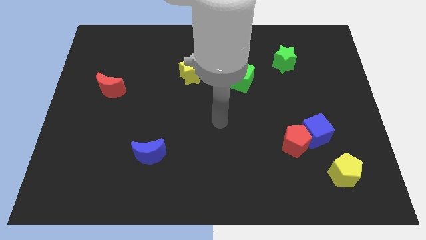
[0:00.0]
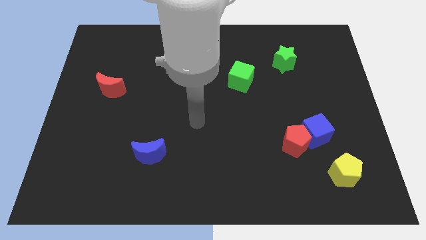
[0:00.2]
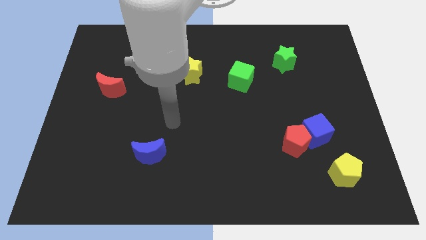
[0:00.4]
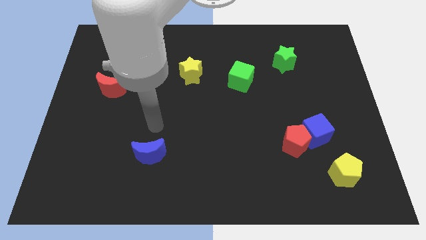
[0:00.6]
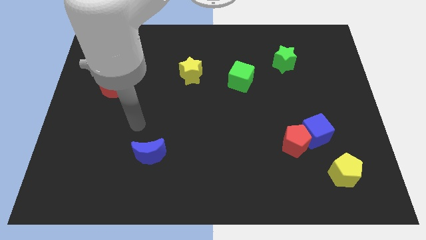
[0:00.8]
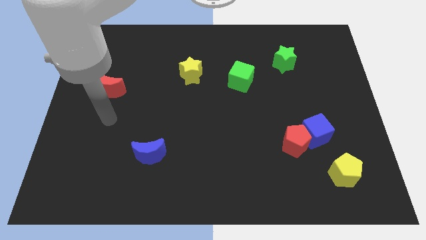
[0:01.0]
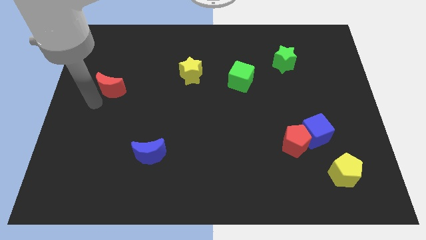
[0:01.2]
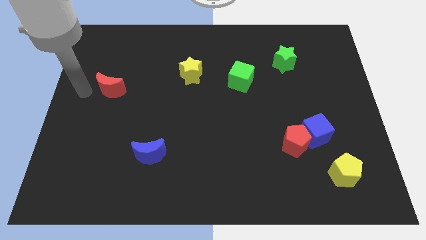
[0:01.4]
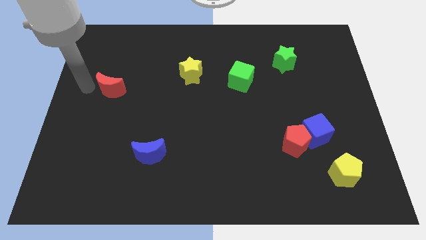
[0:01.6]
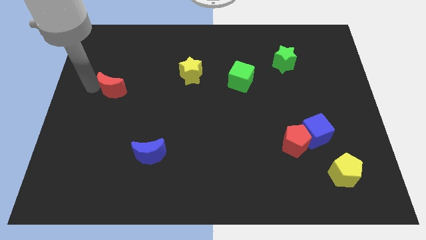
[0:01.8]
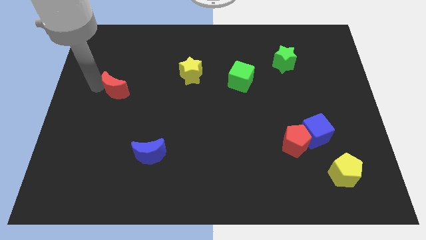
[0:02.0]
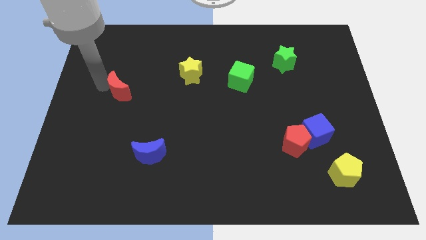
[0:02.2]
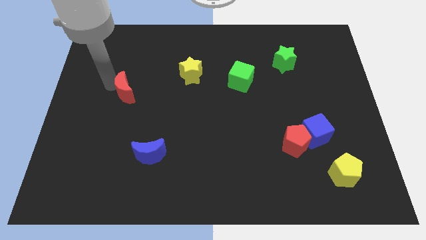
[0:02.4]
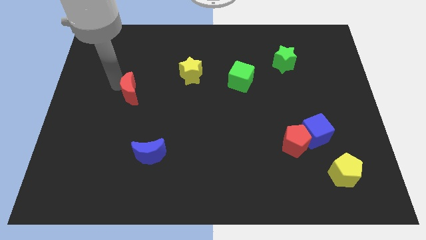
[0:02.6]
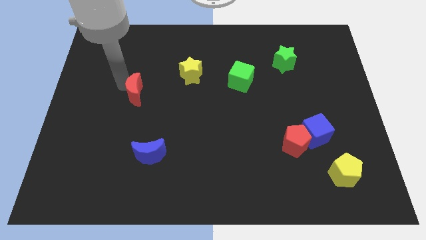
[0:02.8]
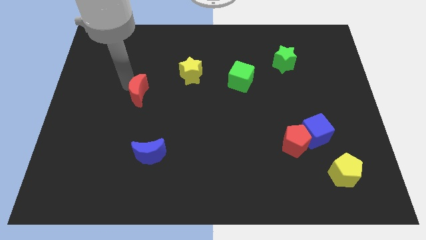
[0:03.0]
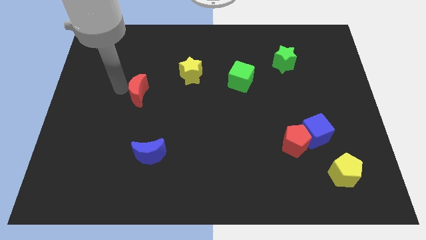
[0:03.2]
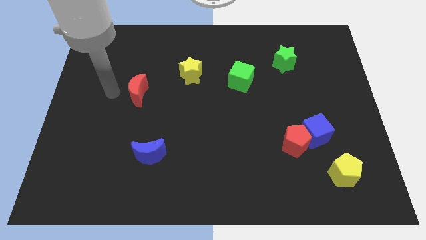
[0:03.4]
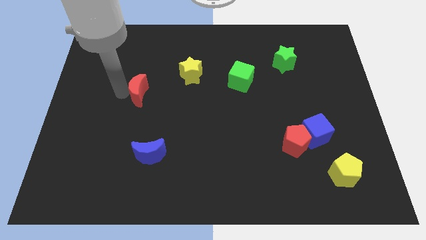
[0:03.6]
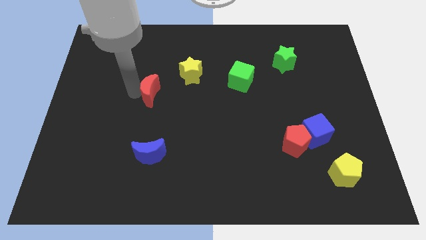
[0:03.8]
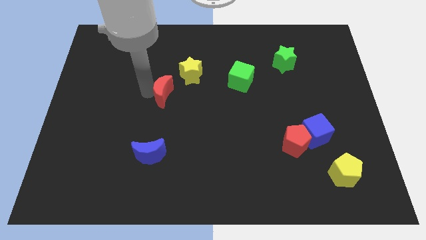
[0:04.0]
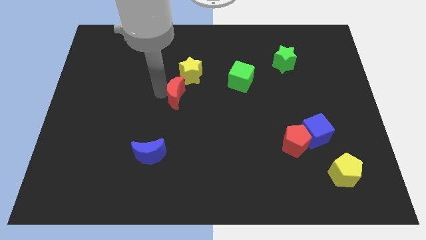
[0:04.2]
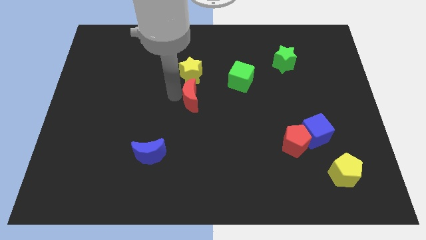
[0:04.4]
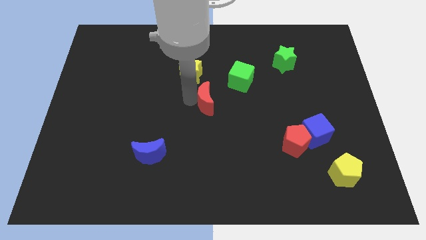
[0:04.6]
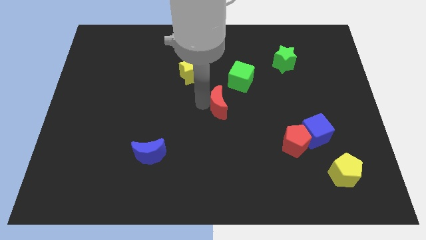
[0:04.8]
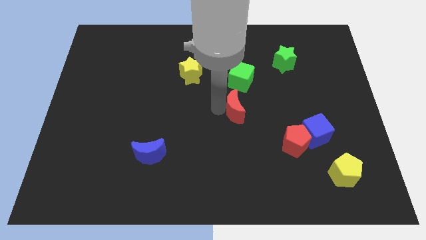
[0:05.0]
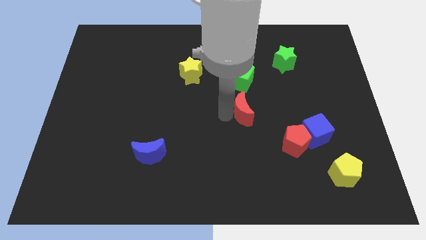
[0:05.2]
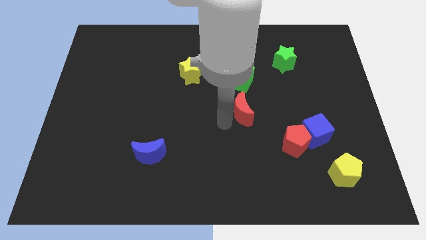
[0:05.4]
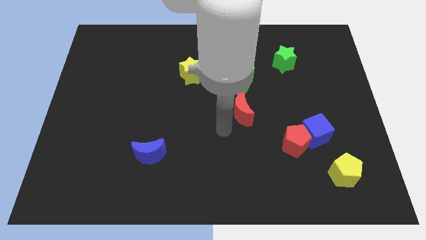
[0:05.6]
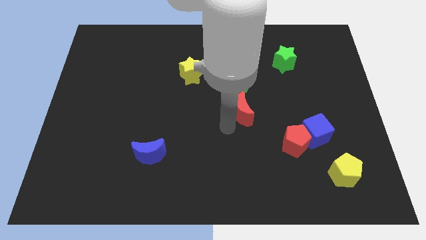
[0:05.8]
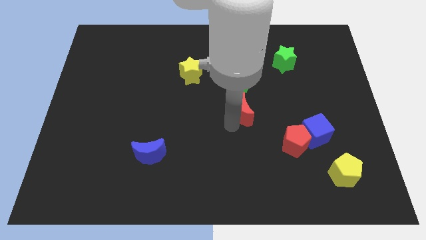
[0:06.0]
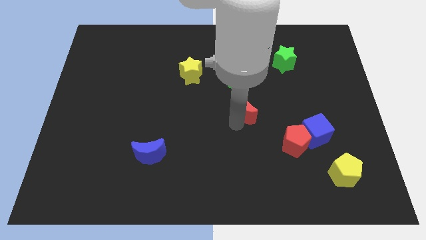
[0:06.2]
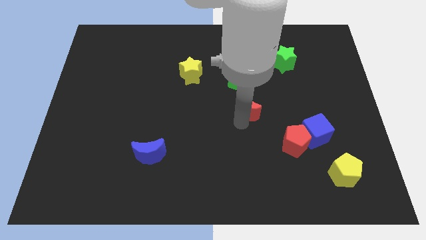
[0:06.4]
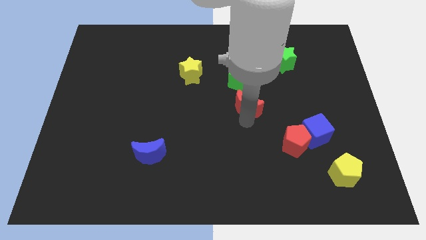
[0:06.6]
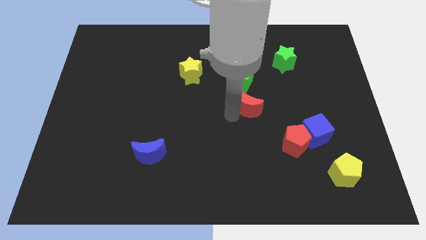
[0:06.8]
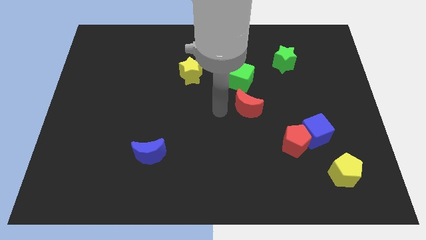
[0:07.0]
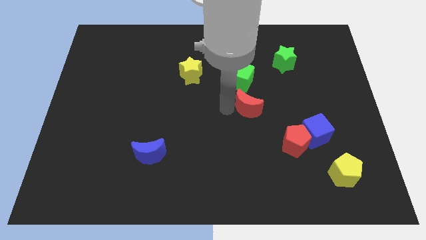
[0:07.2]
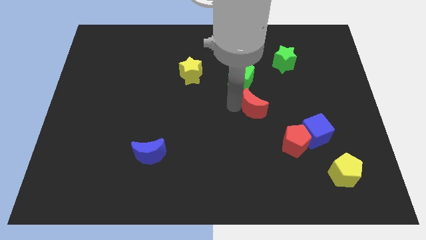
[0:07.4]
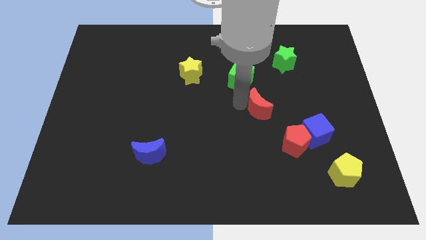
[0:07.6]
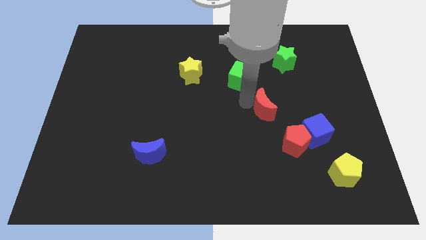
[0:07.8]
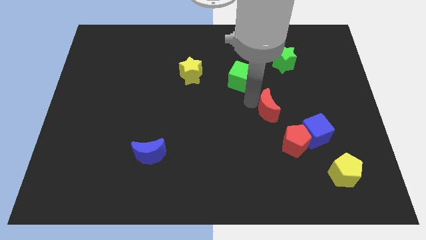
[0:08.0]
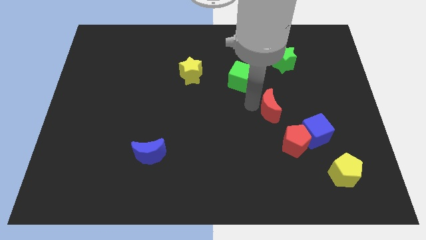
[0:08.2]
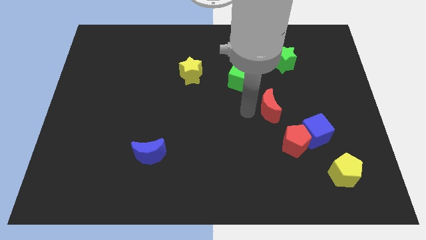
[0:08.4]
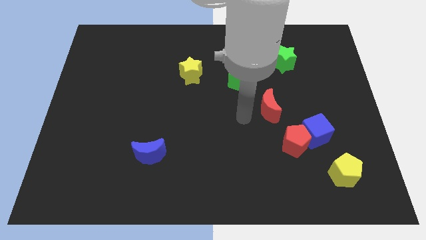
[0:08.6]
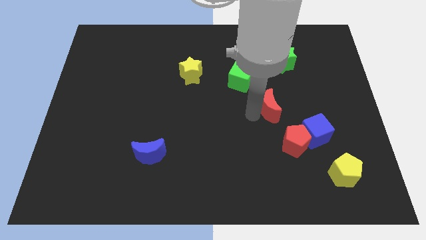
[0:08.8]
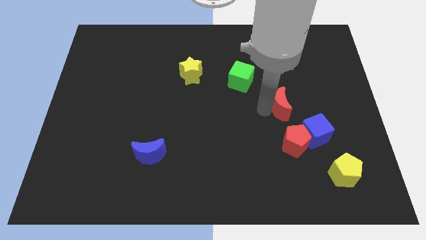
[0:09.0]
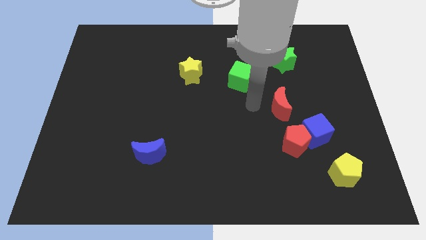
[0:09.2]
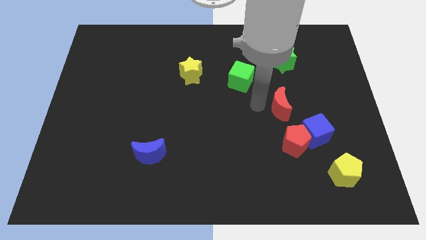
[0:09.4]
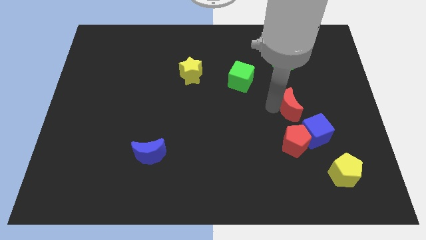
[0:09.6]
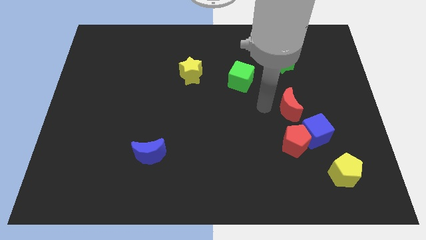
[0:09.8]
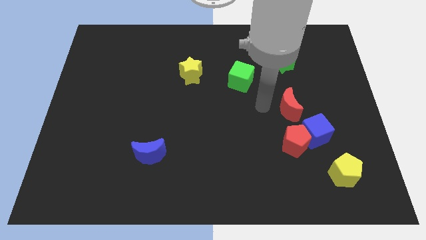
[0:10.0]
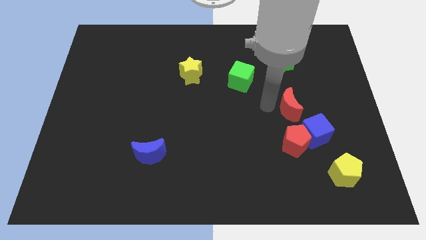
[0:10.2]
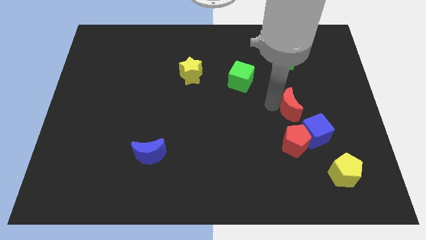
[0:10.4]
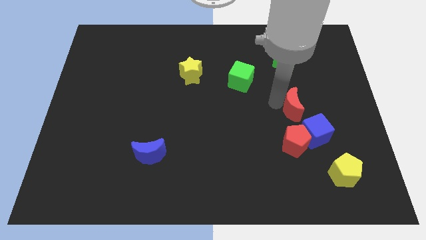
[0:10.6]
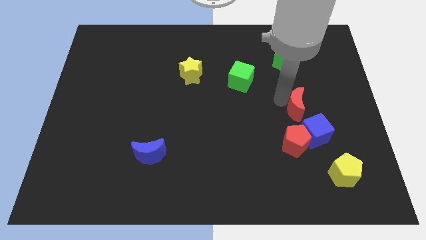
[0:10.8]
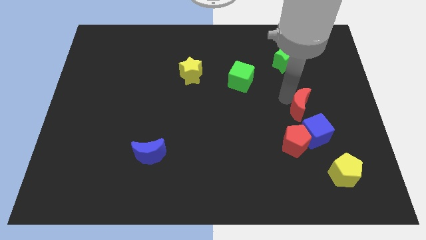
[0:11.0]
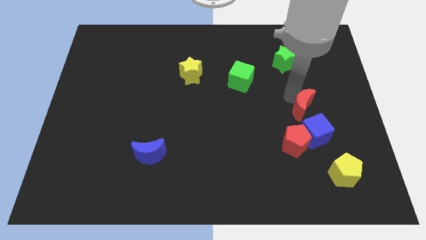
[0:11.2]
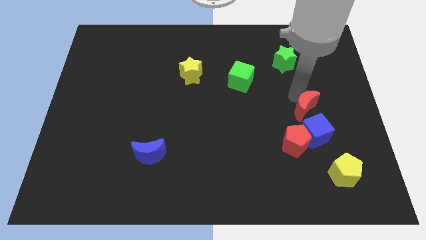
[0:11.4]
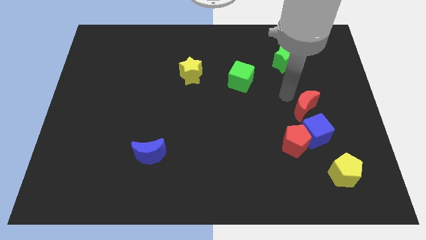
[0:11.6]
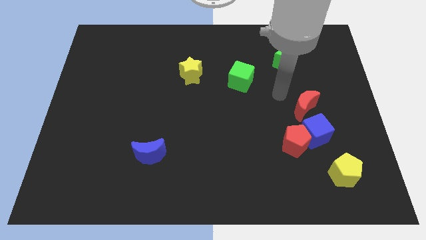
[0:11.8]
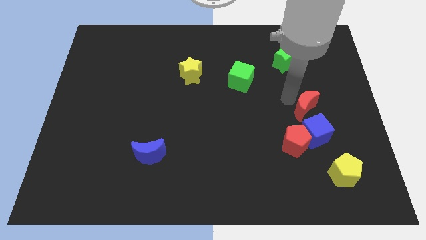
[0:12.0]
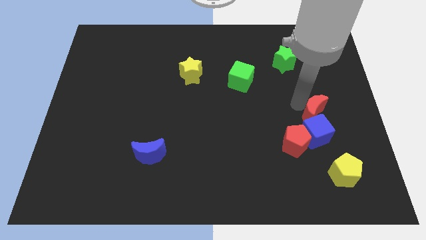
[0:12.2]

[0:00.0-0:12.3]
put the red moon to the top right side of the blue cube
